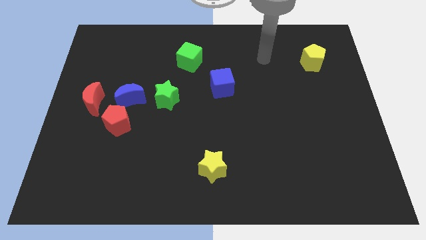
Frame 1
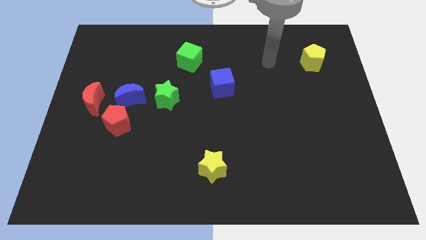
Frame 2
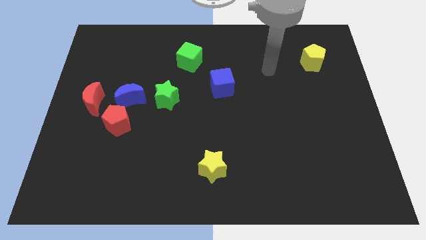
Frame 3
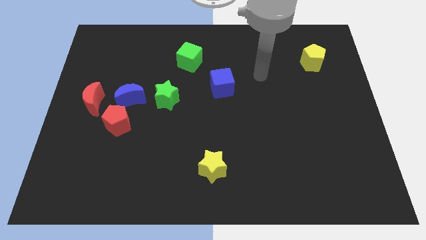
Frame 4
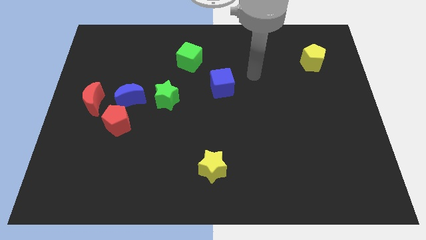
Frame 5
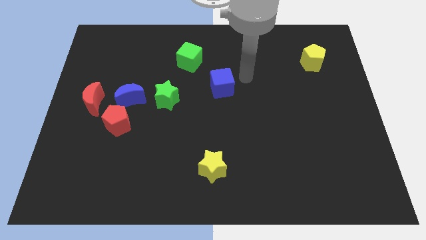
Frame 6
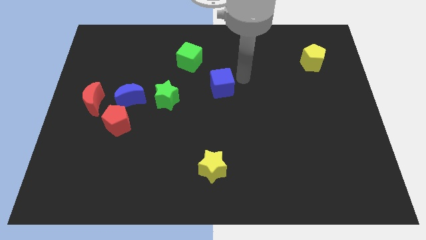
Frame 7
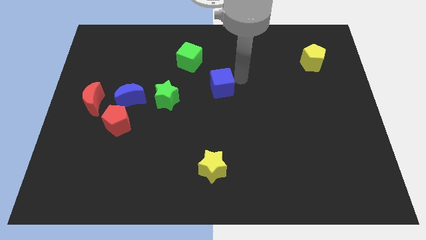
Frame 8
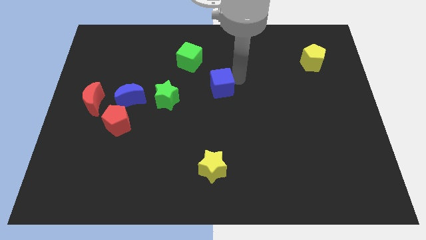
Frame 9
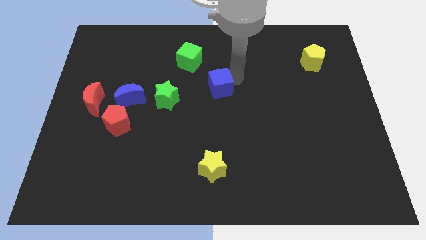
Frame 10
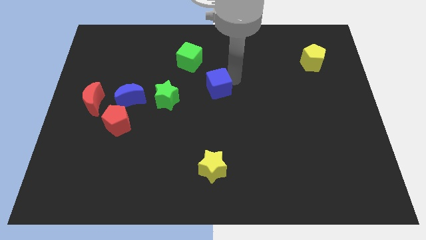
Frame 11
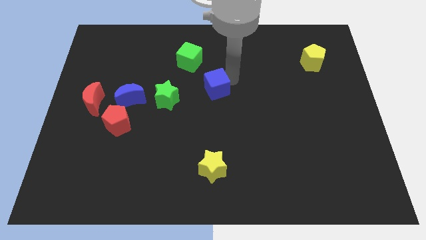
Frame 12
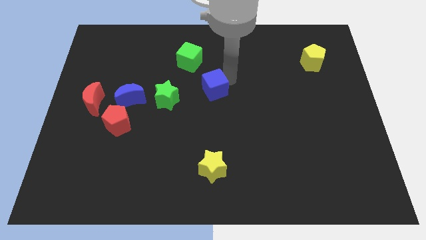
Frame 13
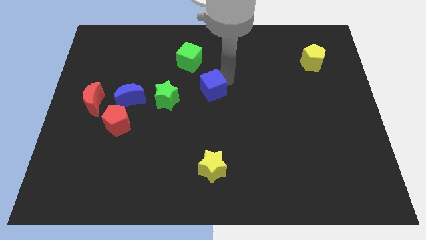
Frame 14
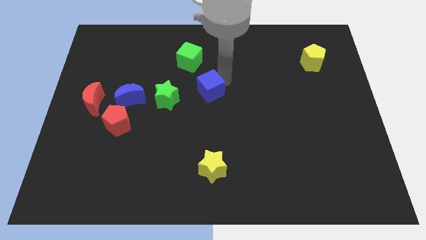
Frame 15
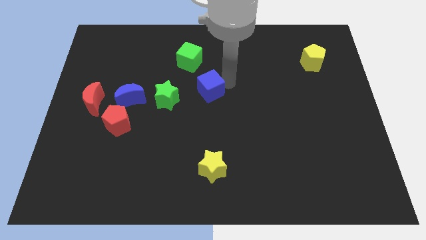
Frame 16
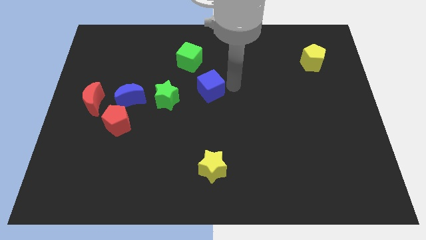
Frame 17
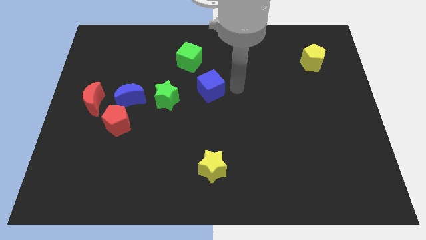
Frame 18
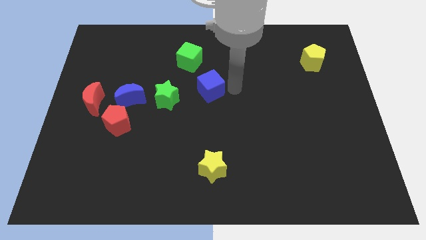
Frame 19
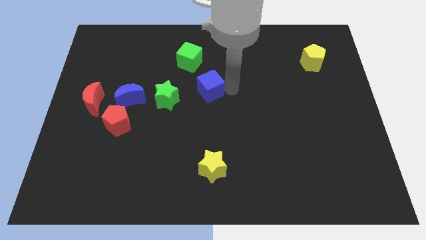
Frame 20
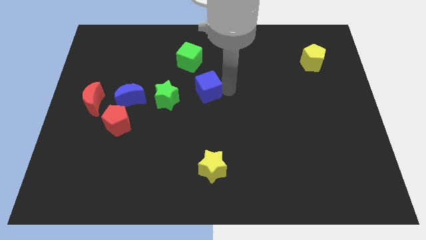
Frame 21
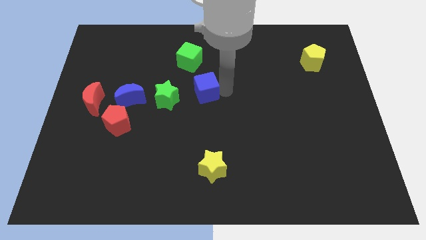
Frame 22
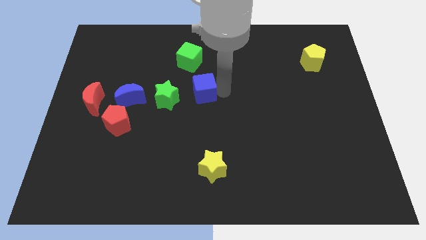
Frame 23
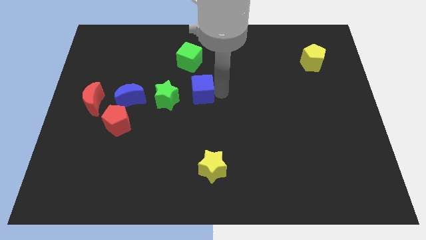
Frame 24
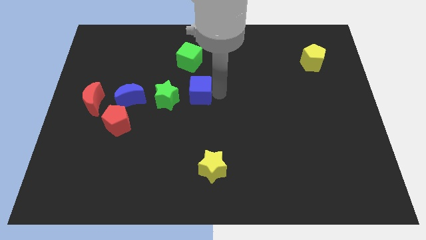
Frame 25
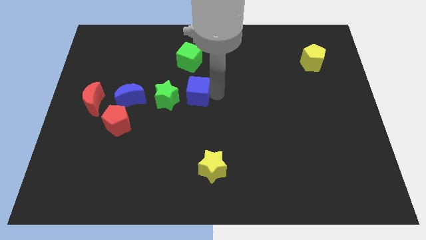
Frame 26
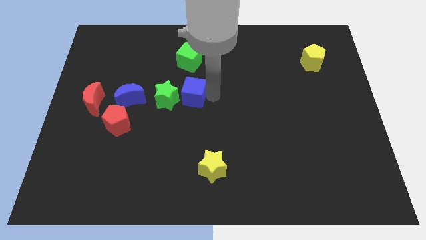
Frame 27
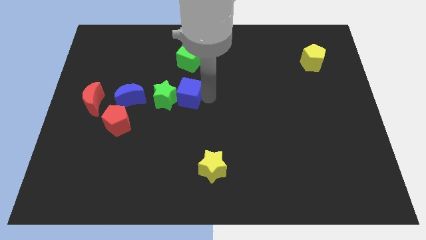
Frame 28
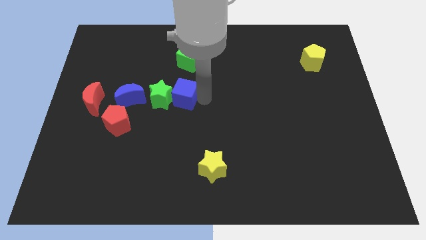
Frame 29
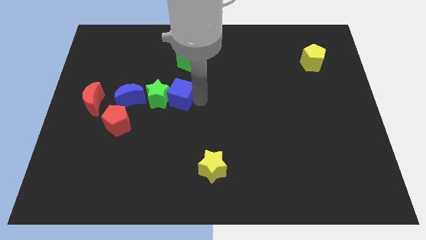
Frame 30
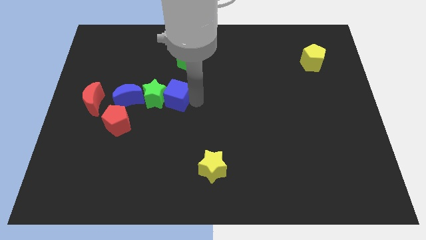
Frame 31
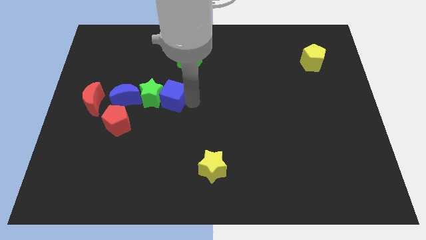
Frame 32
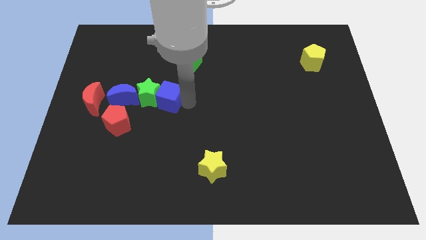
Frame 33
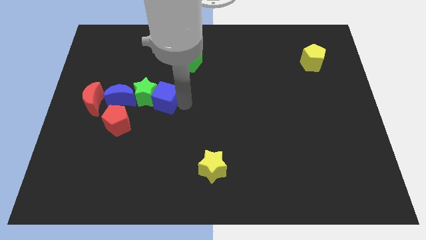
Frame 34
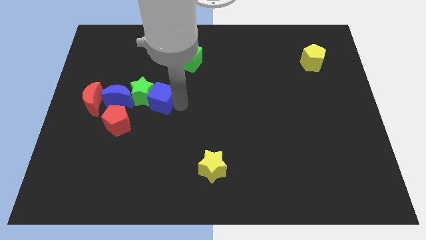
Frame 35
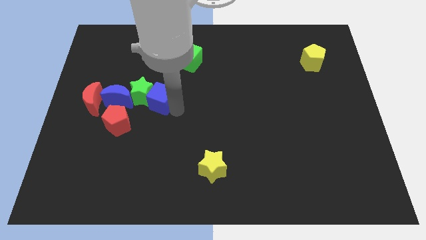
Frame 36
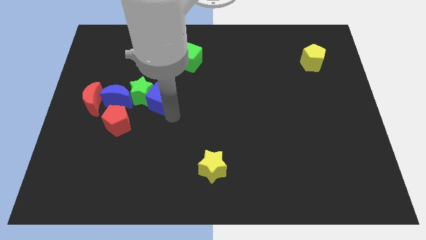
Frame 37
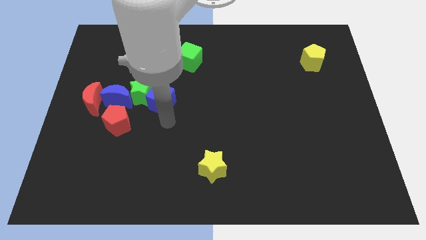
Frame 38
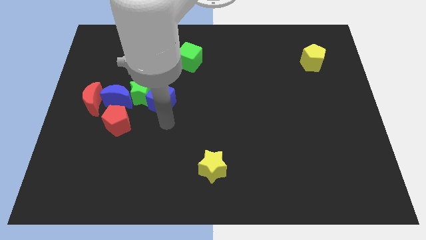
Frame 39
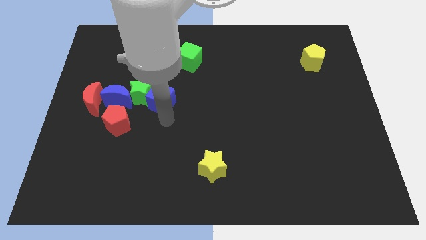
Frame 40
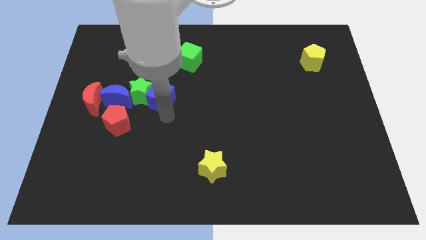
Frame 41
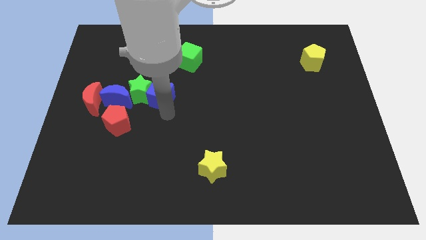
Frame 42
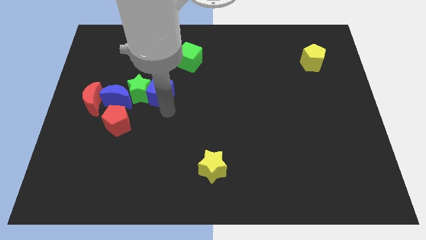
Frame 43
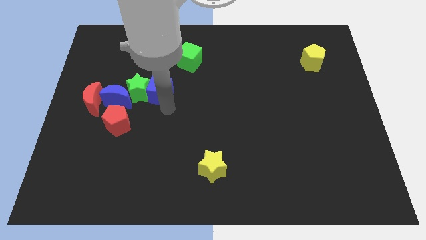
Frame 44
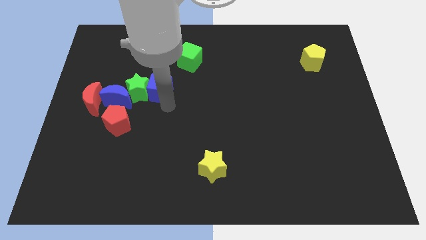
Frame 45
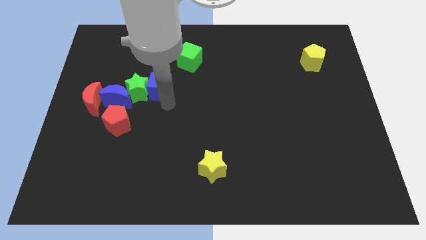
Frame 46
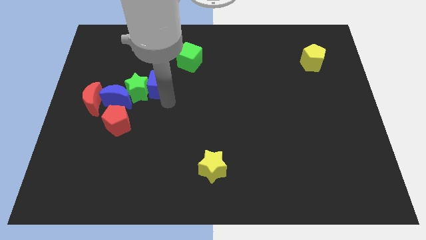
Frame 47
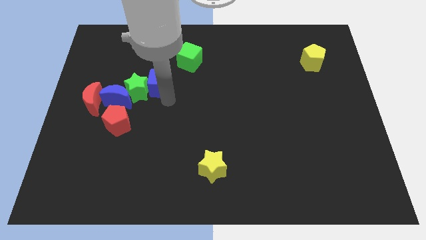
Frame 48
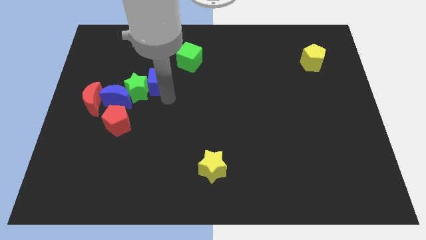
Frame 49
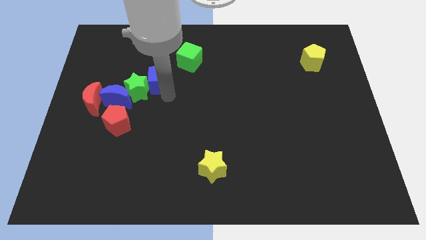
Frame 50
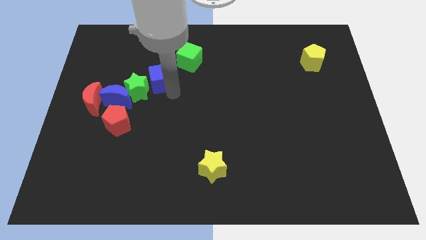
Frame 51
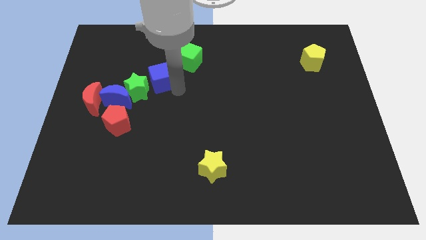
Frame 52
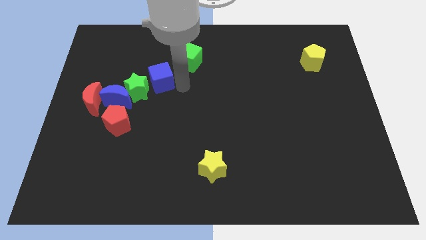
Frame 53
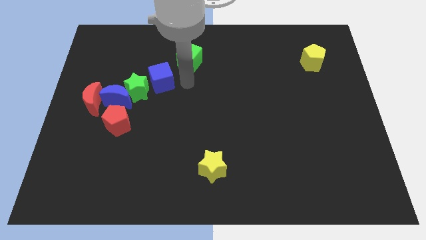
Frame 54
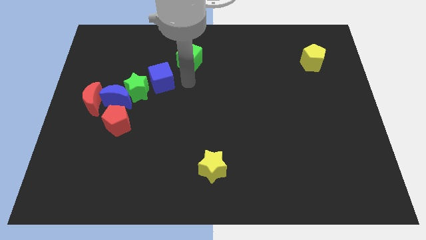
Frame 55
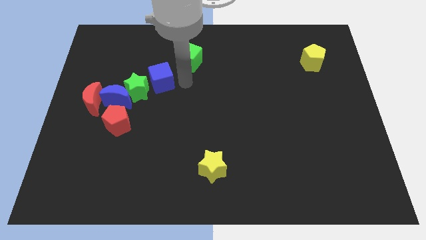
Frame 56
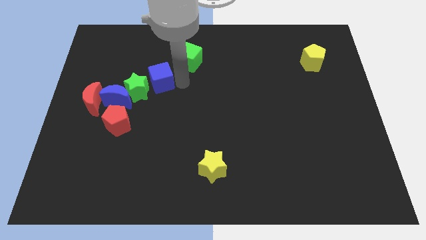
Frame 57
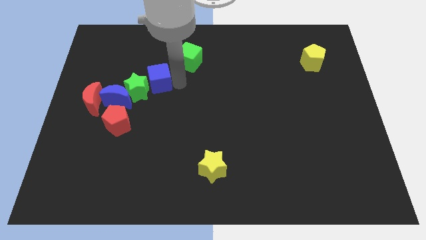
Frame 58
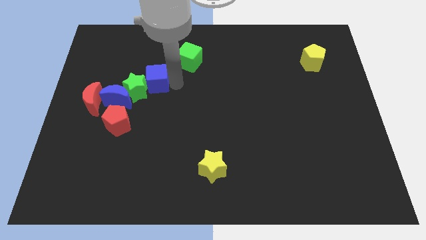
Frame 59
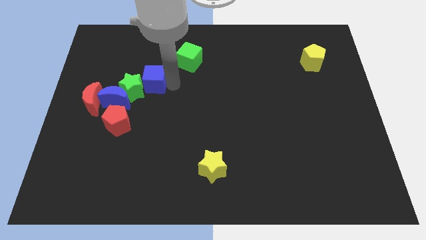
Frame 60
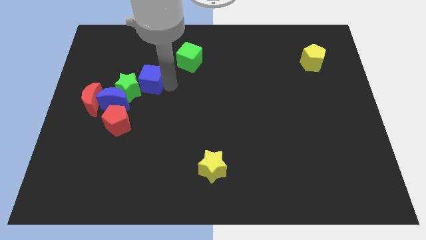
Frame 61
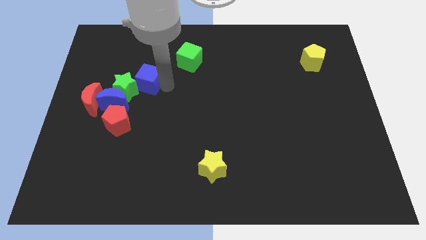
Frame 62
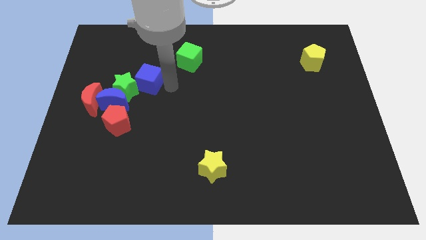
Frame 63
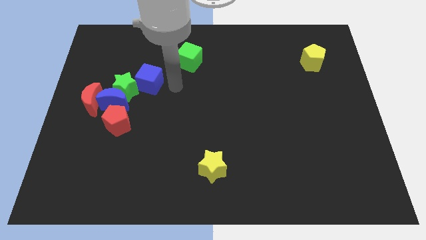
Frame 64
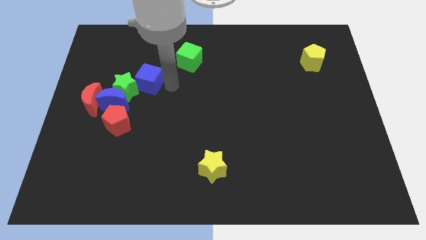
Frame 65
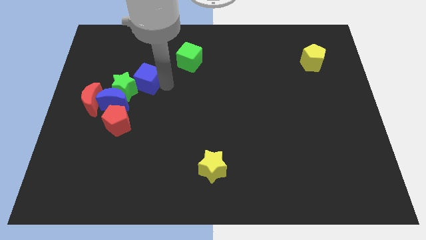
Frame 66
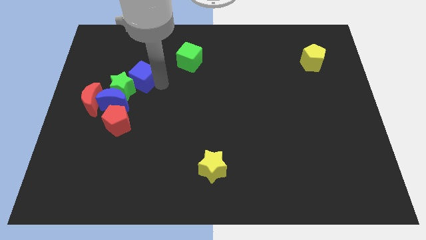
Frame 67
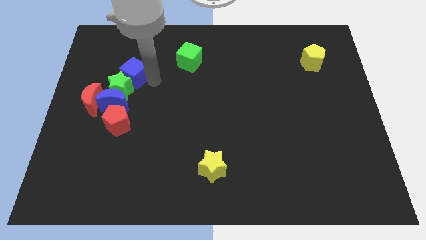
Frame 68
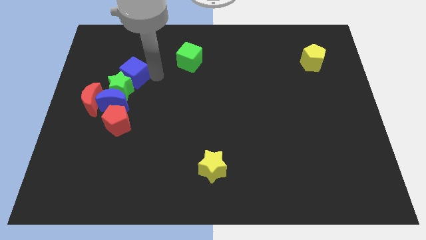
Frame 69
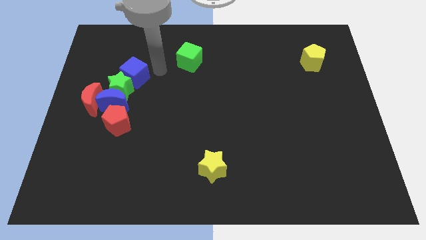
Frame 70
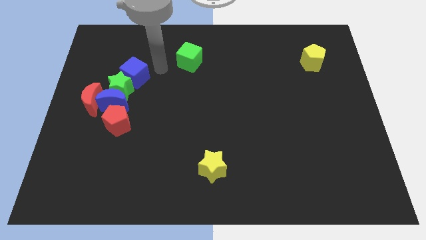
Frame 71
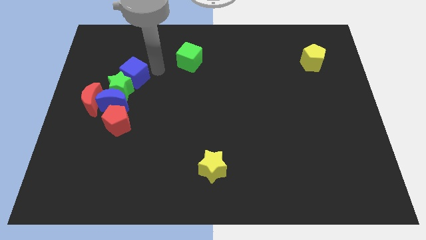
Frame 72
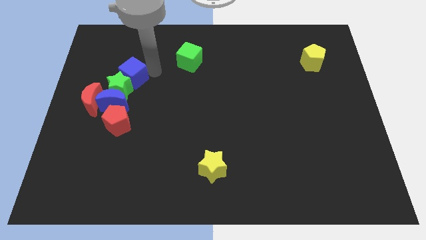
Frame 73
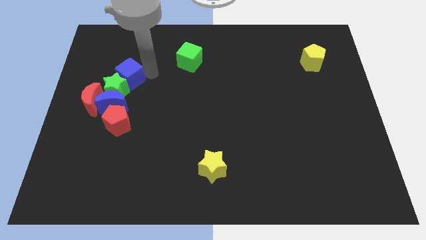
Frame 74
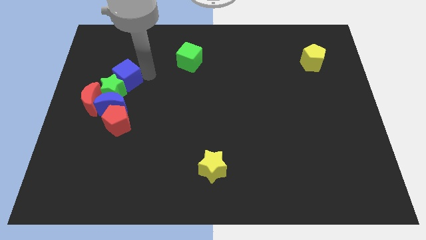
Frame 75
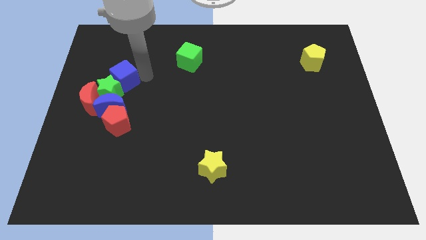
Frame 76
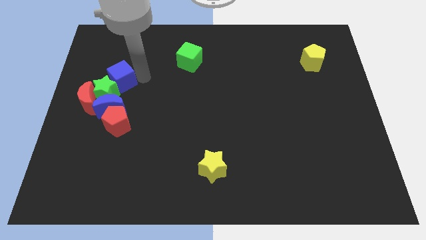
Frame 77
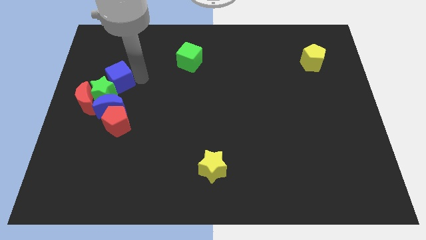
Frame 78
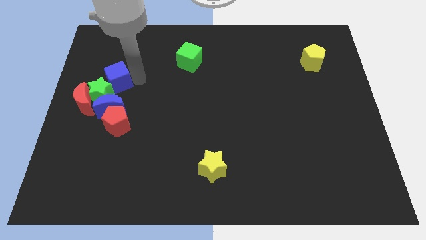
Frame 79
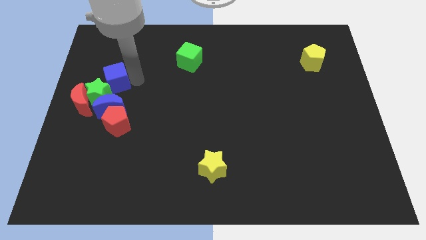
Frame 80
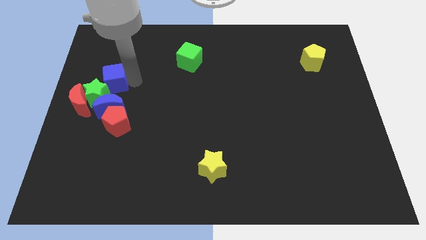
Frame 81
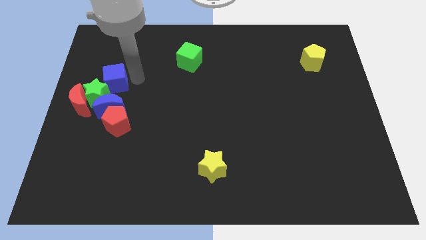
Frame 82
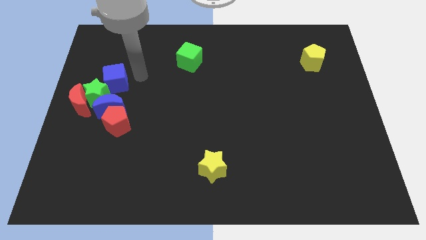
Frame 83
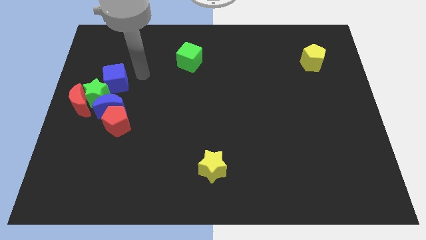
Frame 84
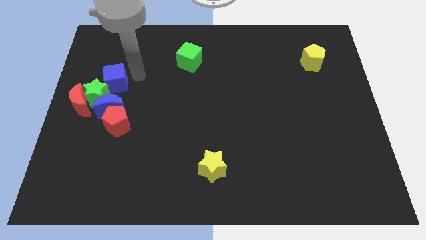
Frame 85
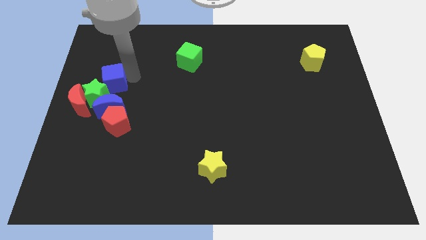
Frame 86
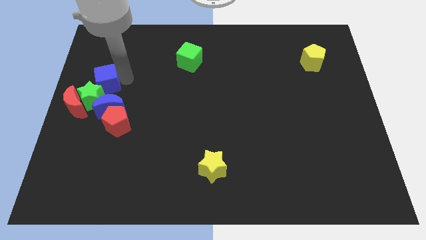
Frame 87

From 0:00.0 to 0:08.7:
slide the blue cube to the left side of the board
